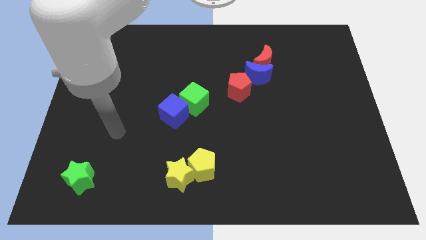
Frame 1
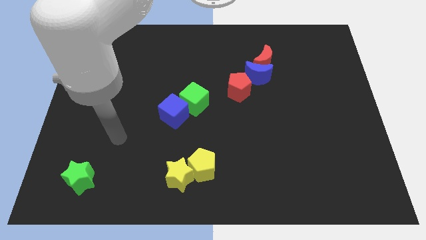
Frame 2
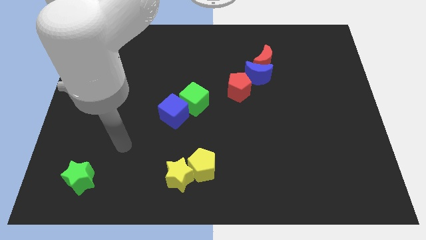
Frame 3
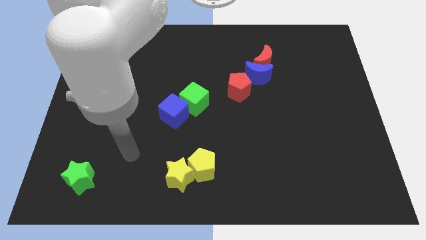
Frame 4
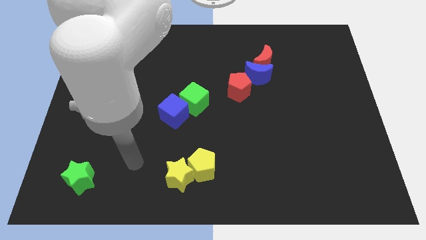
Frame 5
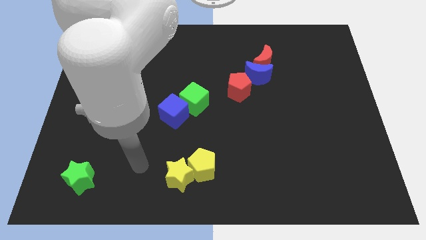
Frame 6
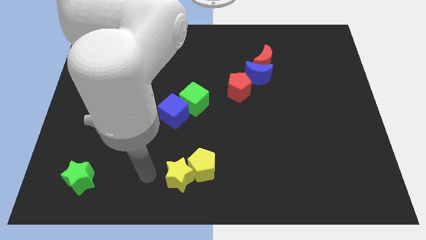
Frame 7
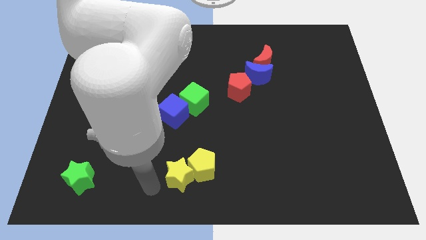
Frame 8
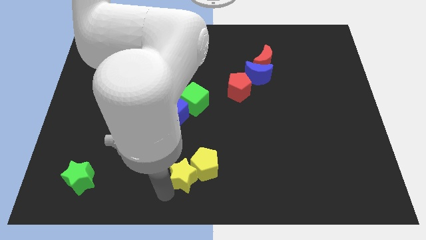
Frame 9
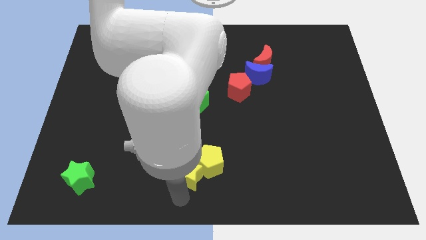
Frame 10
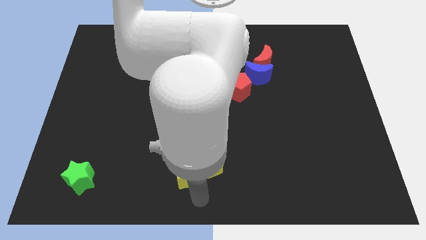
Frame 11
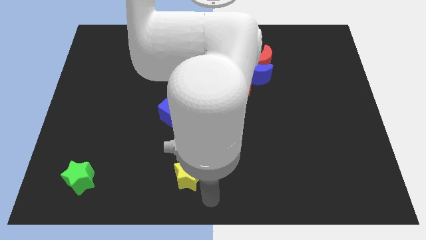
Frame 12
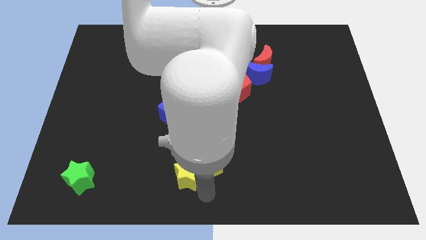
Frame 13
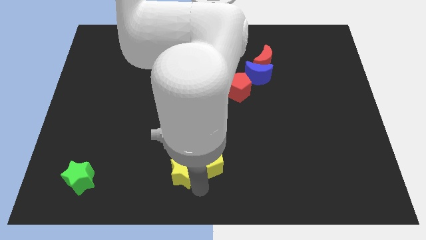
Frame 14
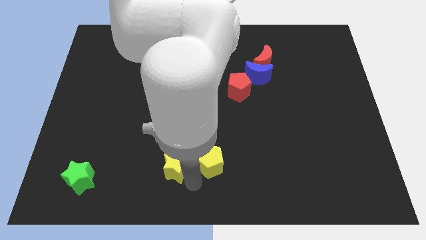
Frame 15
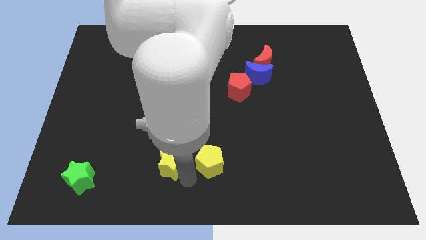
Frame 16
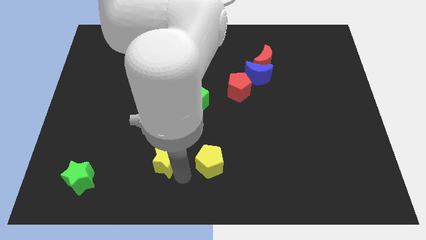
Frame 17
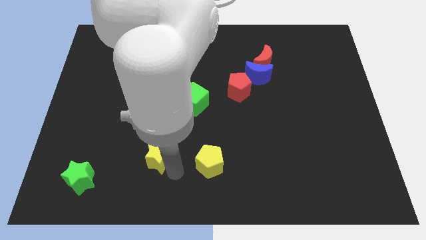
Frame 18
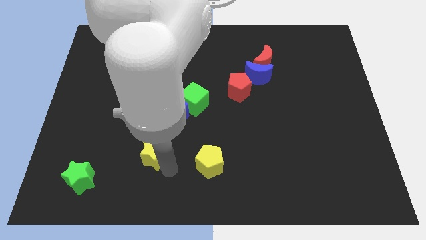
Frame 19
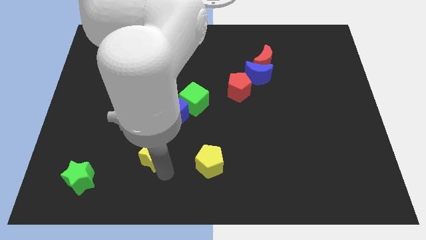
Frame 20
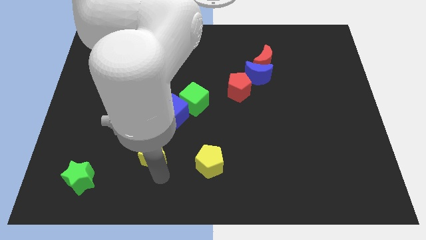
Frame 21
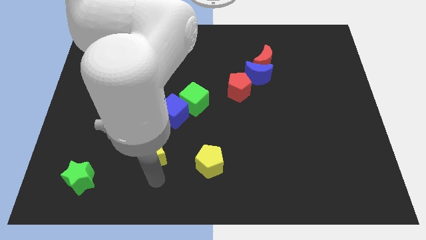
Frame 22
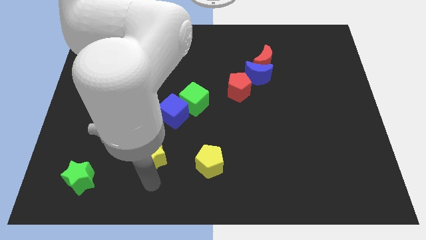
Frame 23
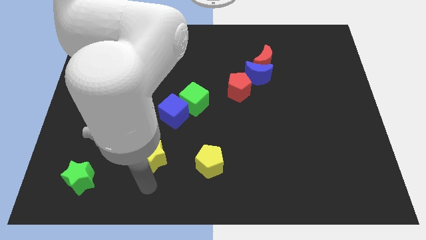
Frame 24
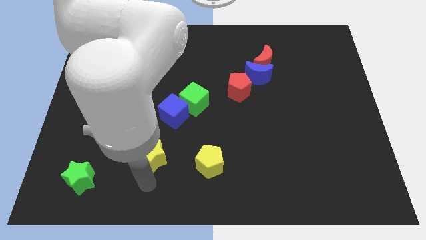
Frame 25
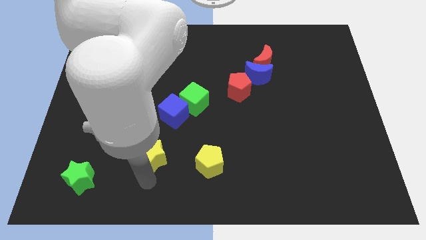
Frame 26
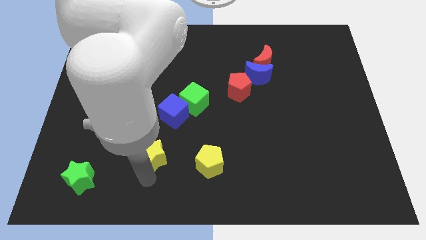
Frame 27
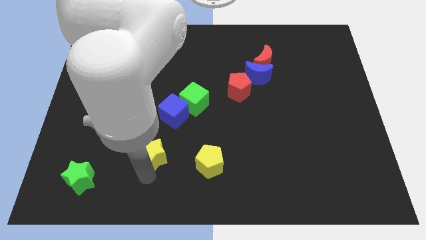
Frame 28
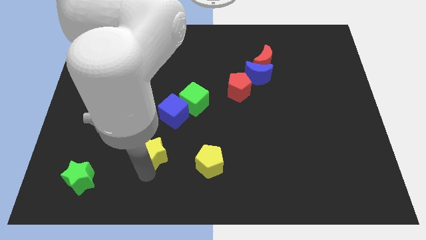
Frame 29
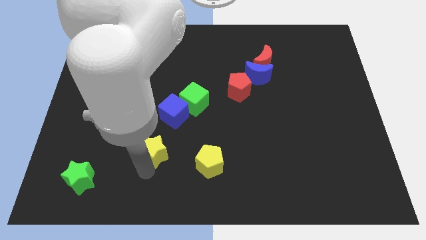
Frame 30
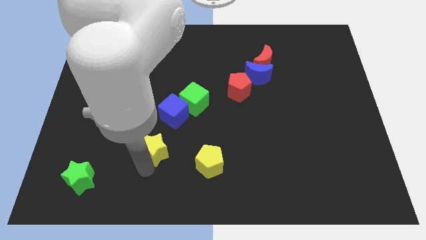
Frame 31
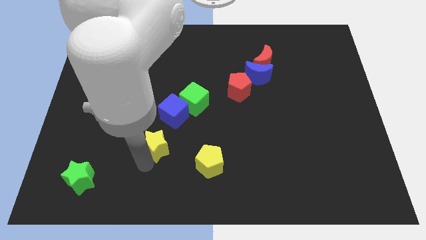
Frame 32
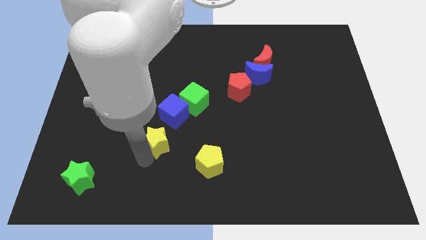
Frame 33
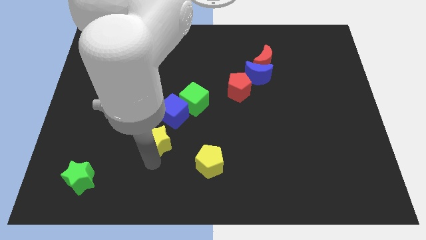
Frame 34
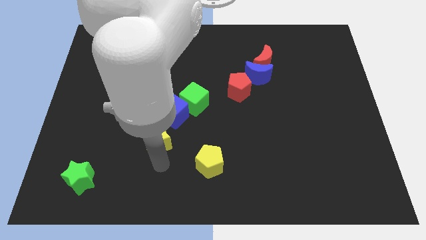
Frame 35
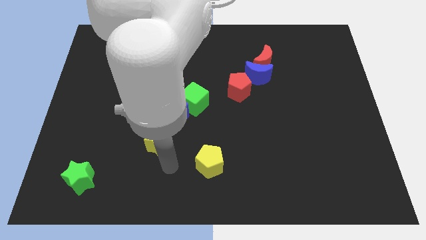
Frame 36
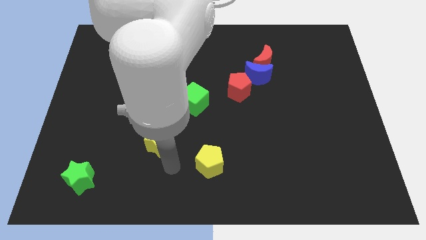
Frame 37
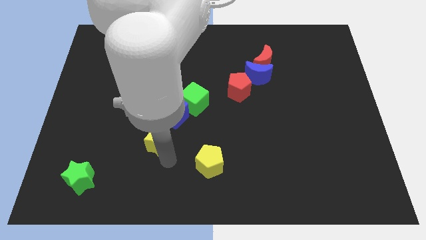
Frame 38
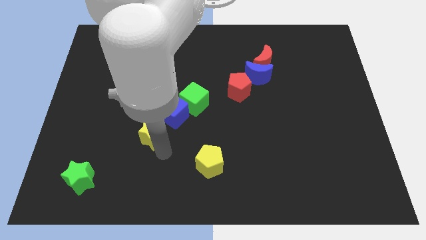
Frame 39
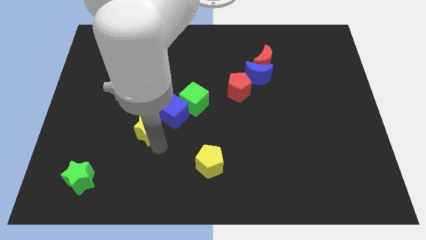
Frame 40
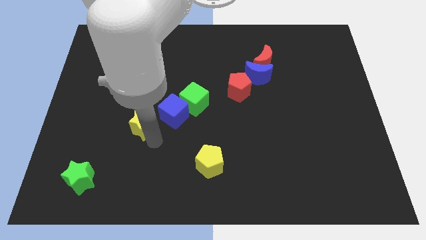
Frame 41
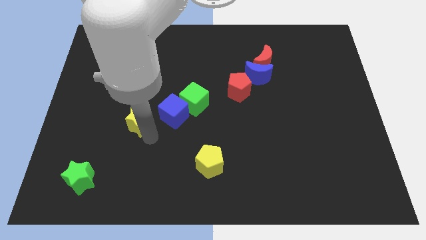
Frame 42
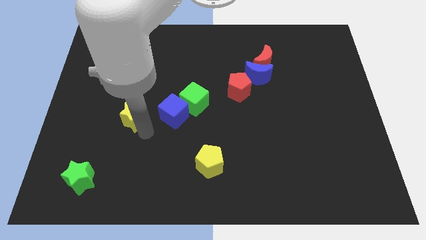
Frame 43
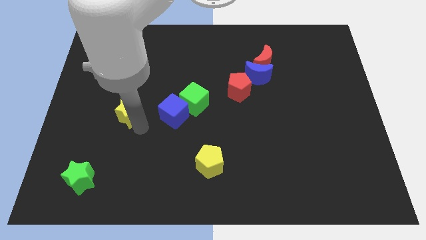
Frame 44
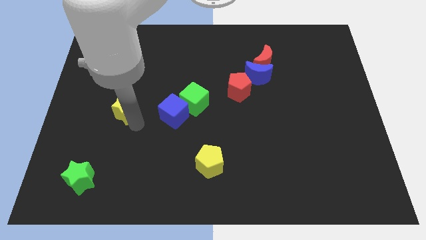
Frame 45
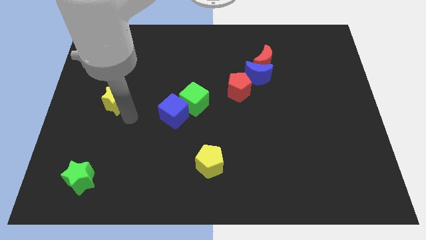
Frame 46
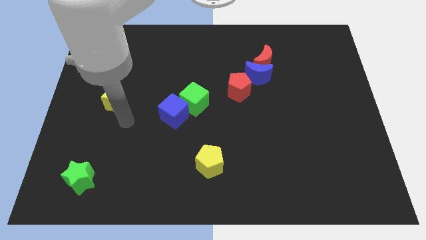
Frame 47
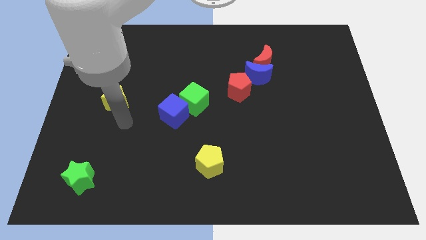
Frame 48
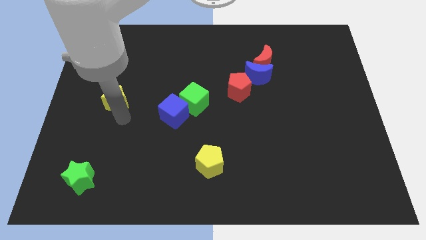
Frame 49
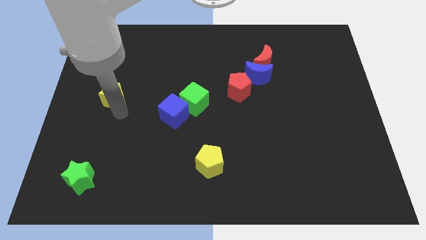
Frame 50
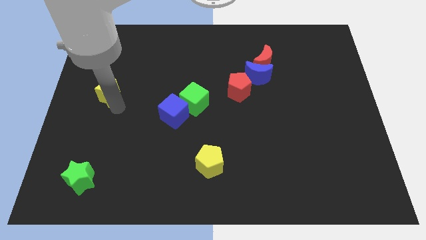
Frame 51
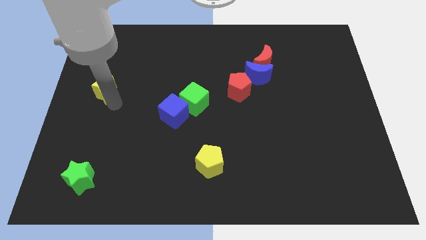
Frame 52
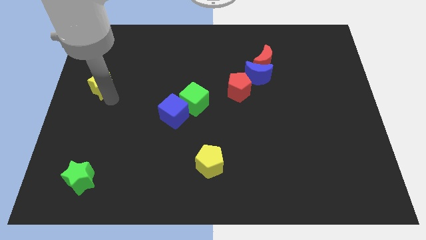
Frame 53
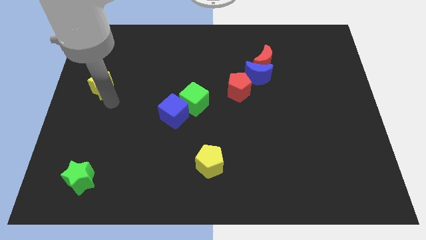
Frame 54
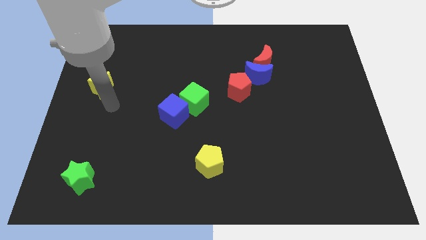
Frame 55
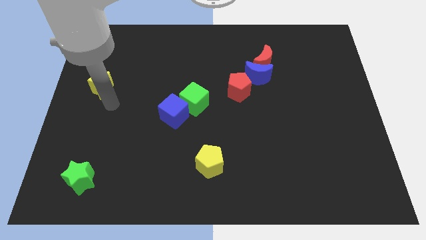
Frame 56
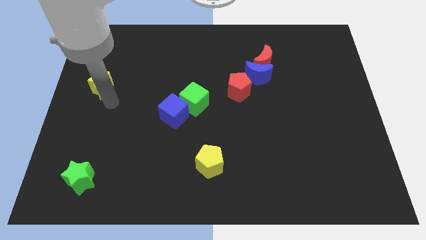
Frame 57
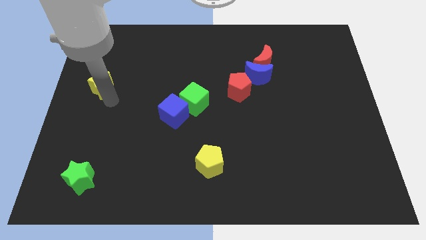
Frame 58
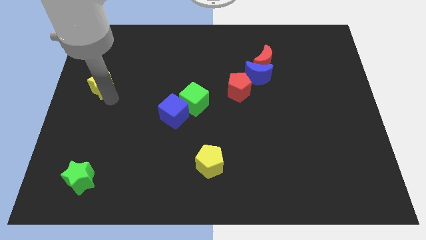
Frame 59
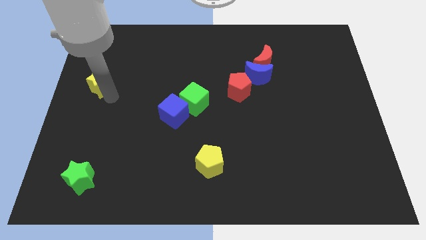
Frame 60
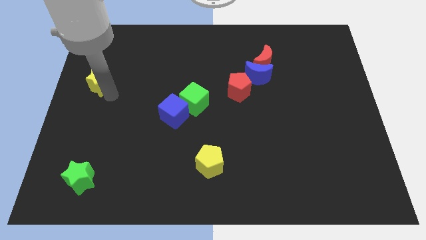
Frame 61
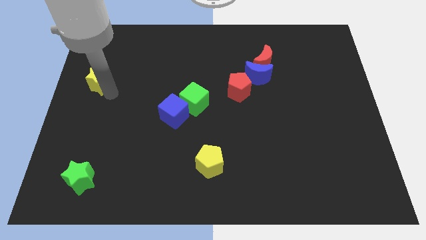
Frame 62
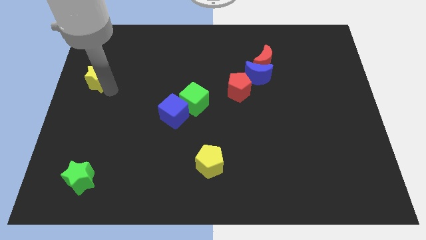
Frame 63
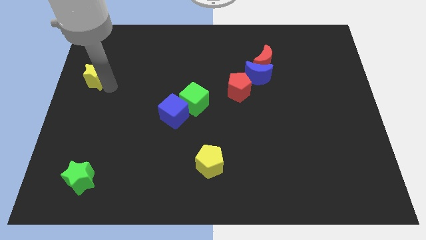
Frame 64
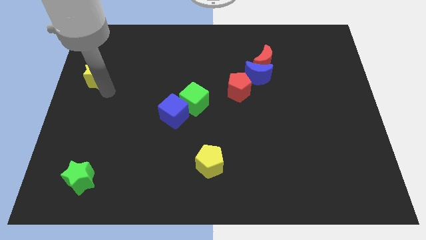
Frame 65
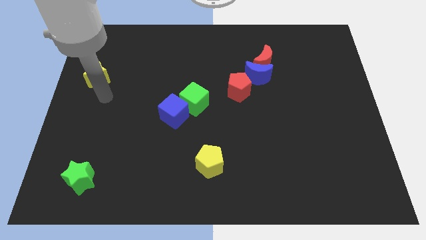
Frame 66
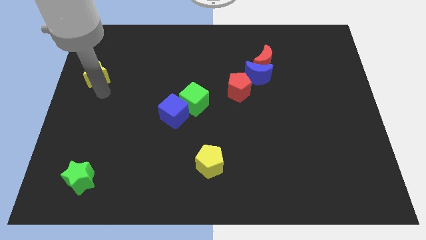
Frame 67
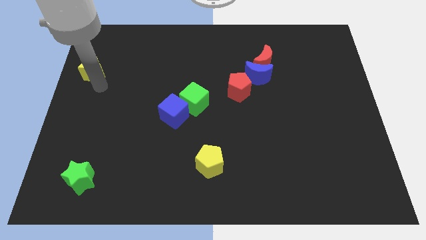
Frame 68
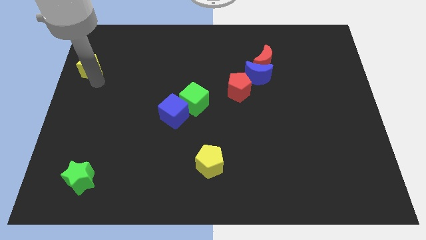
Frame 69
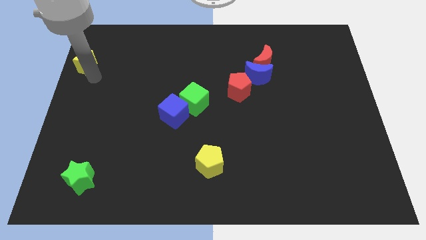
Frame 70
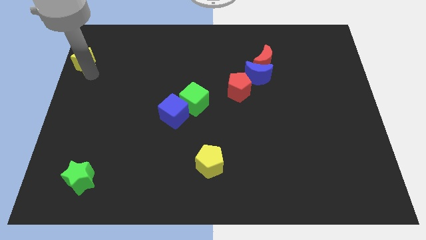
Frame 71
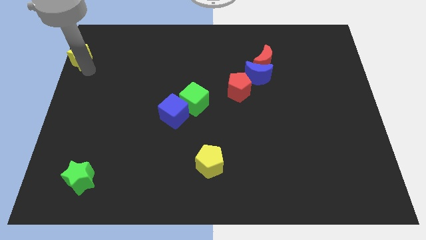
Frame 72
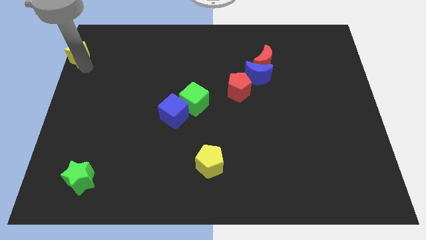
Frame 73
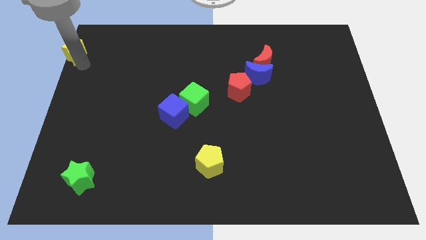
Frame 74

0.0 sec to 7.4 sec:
slide the yellow star to the top left
